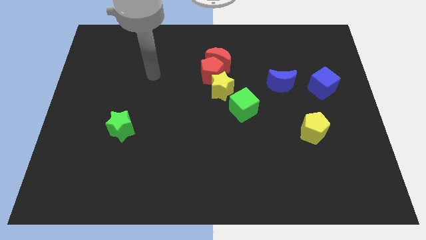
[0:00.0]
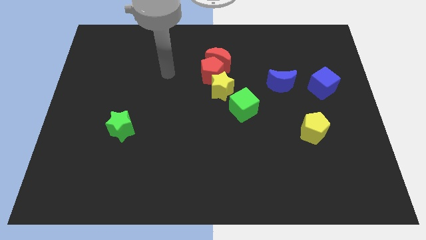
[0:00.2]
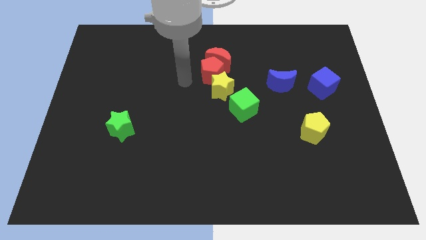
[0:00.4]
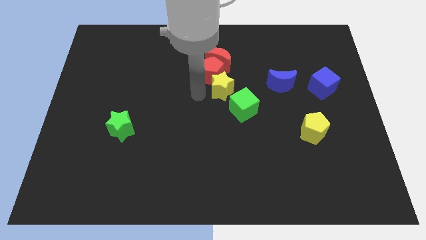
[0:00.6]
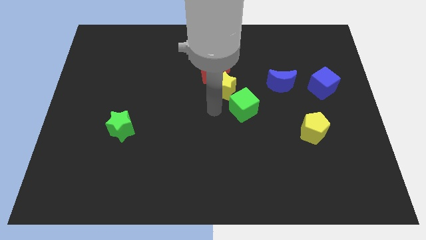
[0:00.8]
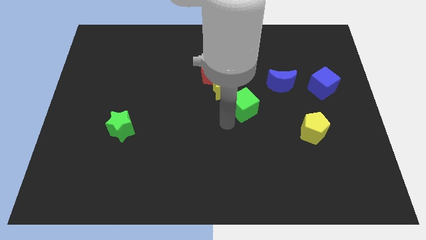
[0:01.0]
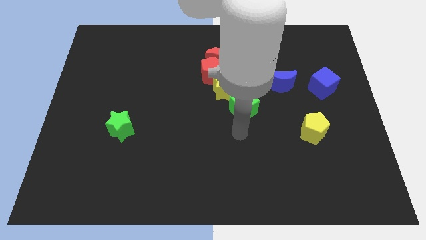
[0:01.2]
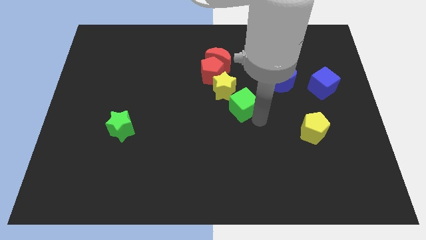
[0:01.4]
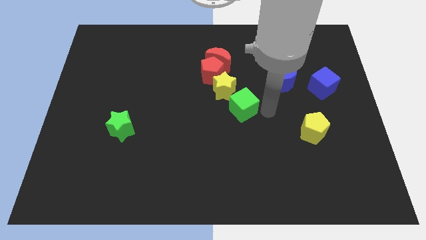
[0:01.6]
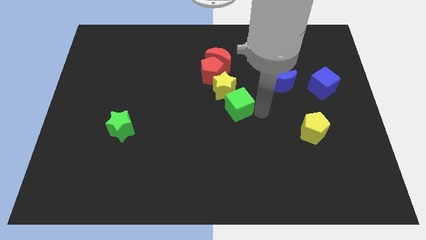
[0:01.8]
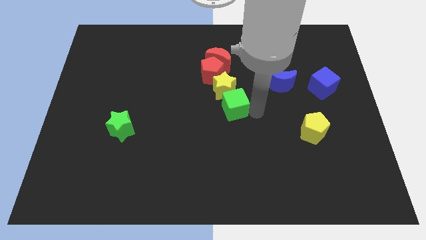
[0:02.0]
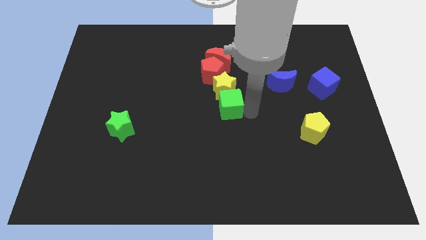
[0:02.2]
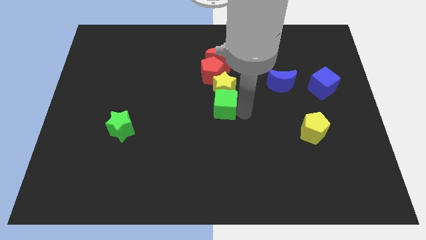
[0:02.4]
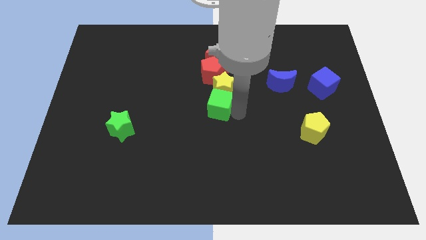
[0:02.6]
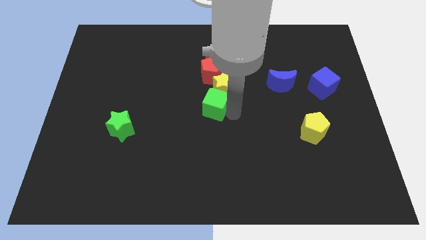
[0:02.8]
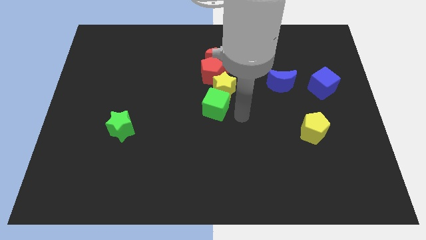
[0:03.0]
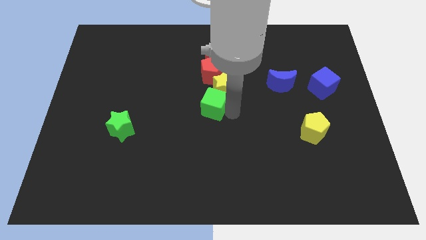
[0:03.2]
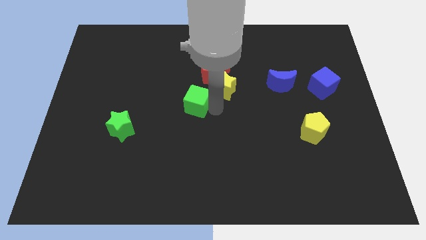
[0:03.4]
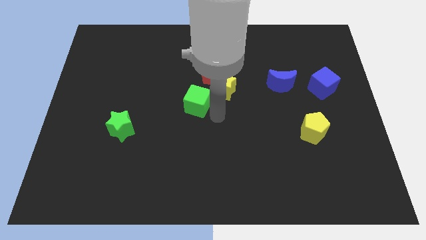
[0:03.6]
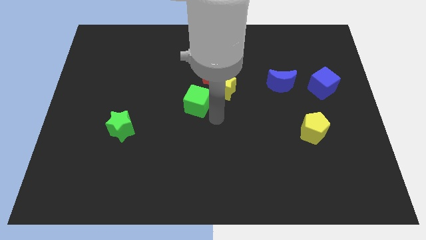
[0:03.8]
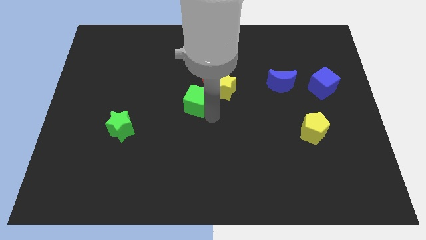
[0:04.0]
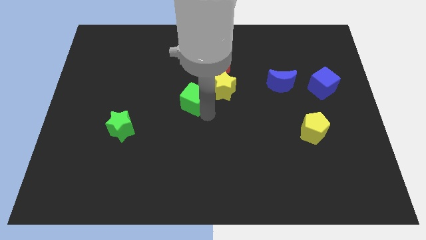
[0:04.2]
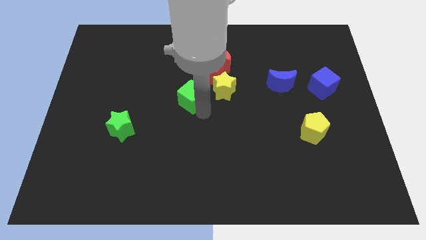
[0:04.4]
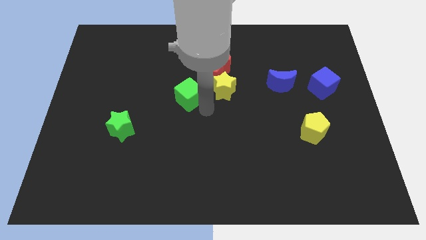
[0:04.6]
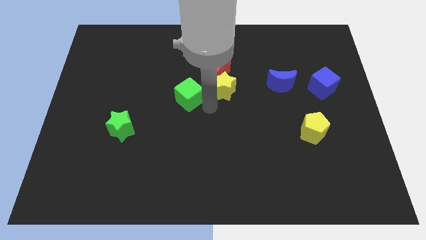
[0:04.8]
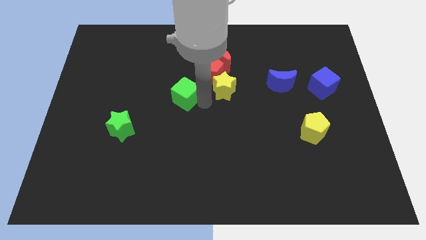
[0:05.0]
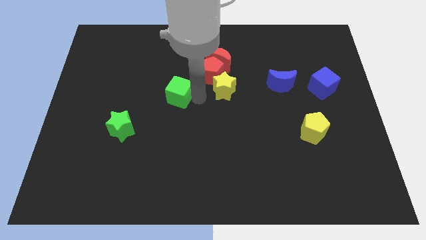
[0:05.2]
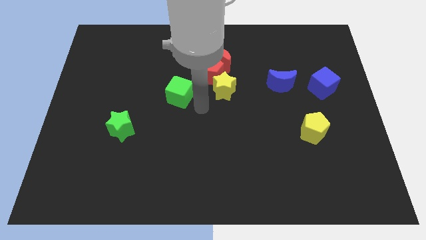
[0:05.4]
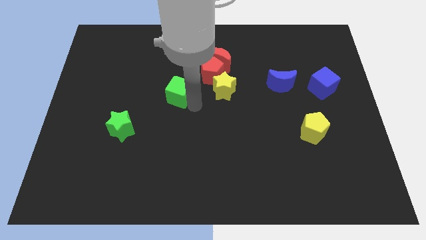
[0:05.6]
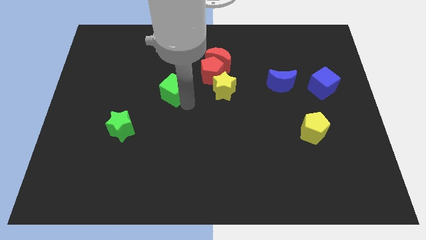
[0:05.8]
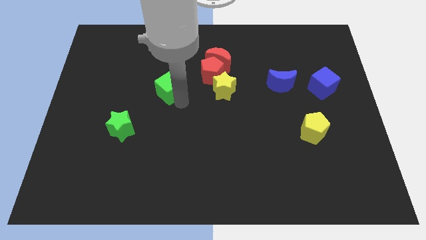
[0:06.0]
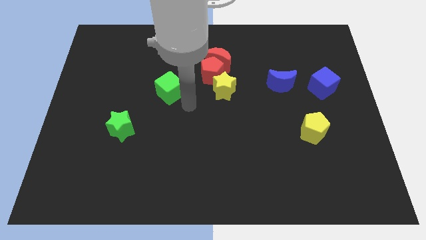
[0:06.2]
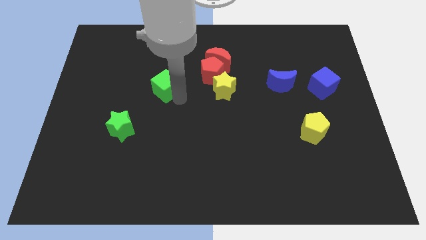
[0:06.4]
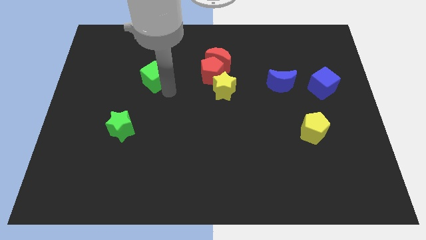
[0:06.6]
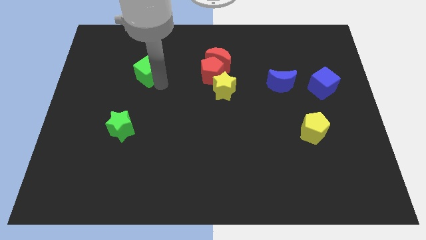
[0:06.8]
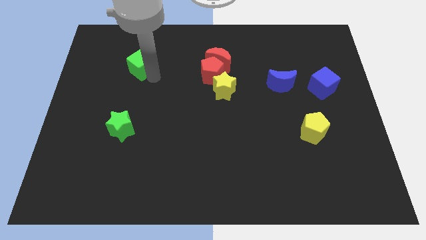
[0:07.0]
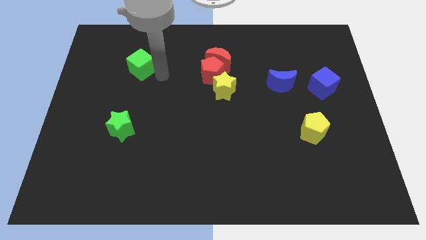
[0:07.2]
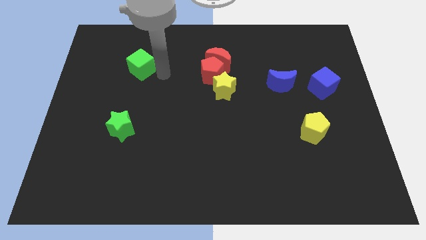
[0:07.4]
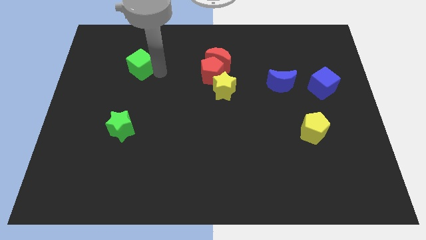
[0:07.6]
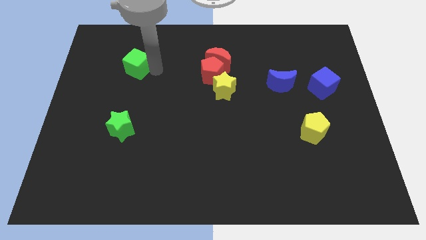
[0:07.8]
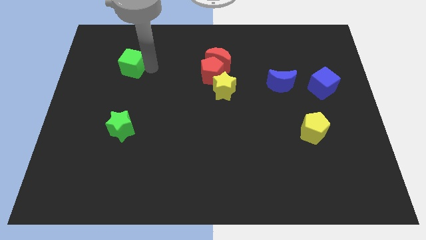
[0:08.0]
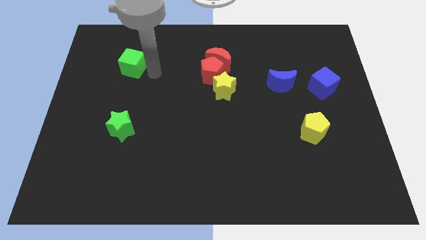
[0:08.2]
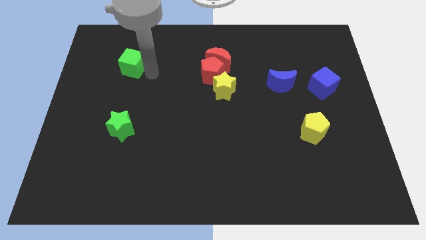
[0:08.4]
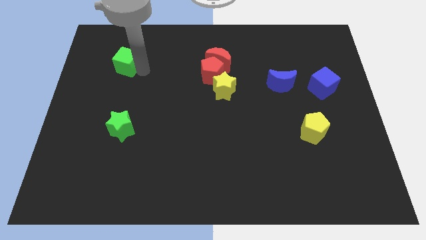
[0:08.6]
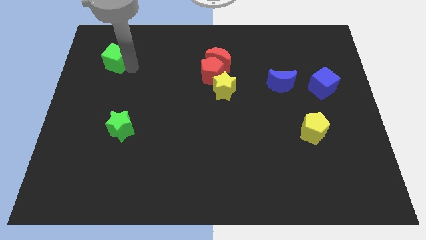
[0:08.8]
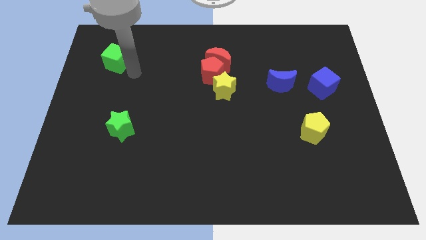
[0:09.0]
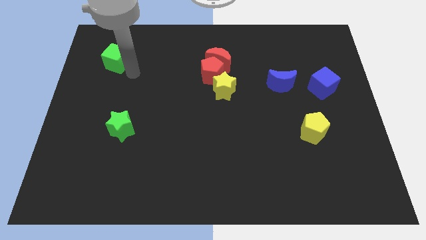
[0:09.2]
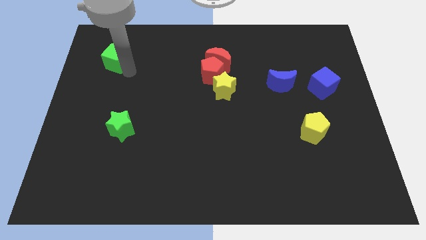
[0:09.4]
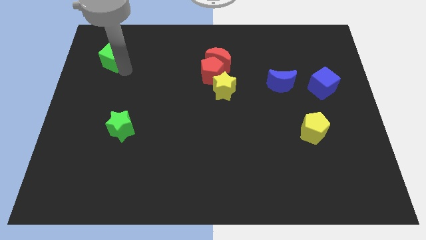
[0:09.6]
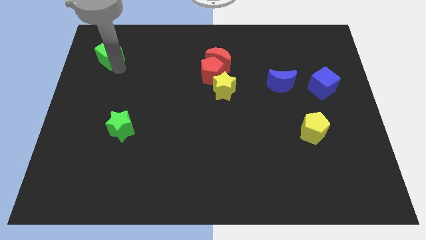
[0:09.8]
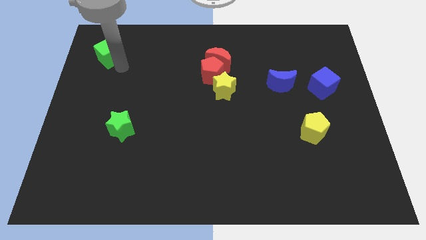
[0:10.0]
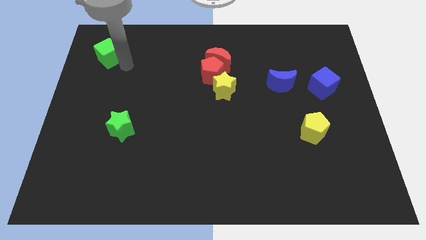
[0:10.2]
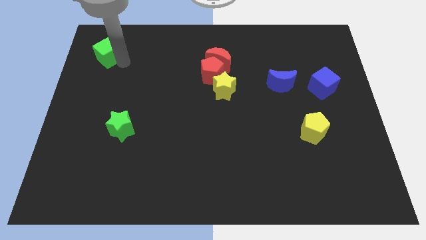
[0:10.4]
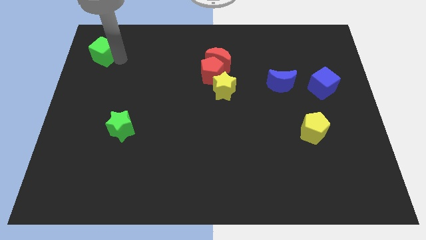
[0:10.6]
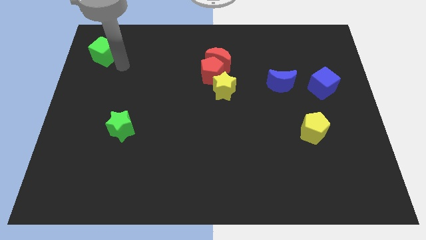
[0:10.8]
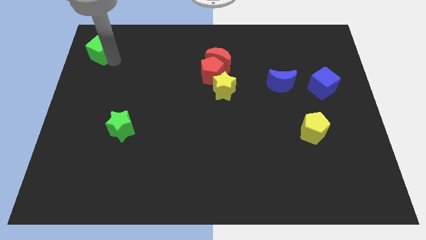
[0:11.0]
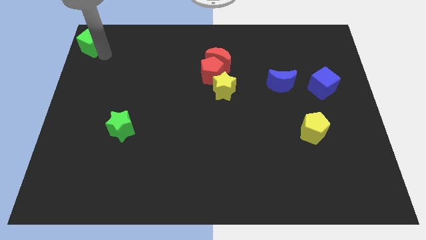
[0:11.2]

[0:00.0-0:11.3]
slide the green cube to the top left of the board

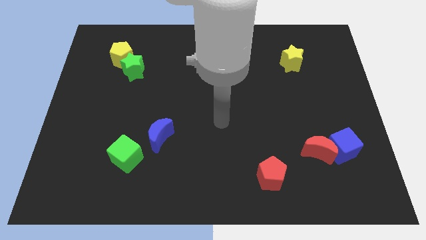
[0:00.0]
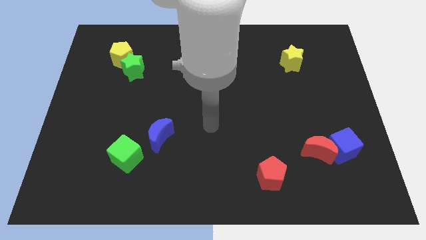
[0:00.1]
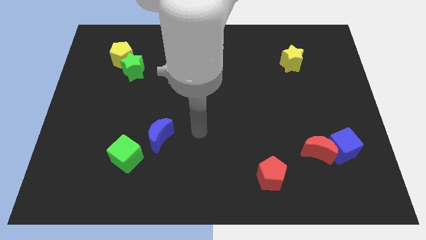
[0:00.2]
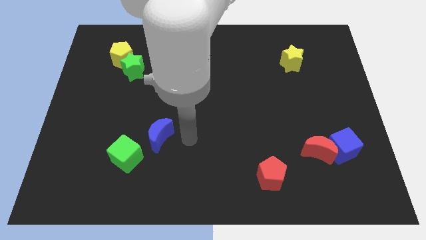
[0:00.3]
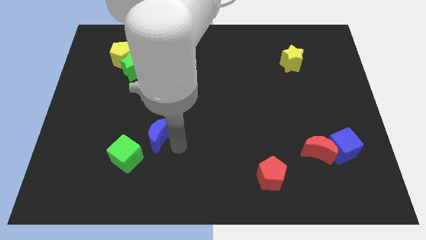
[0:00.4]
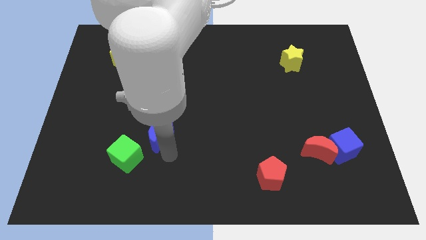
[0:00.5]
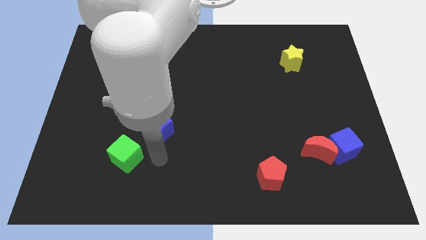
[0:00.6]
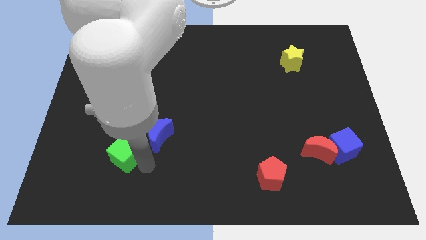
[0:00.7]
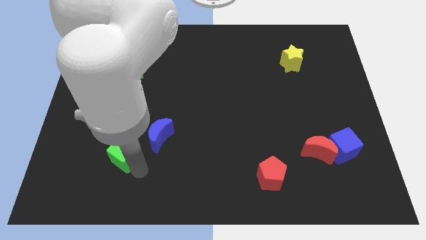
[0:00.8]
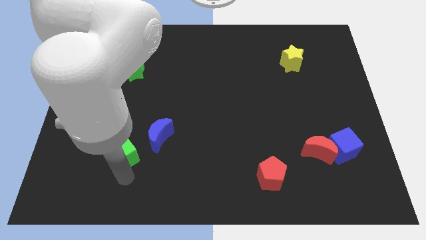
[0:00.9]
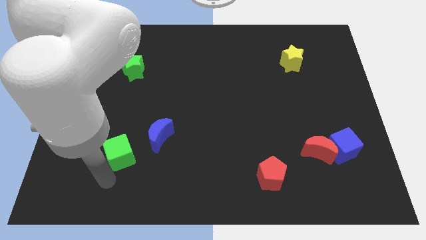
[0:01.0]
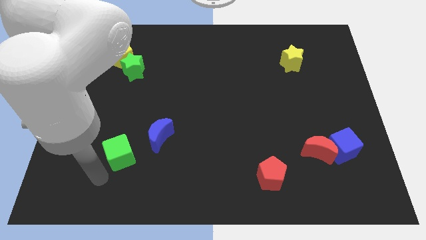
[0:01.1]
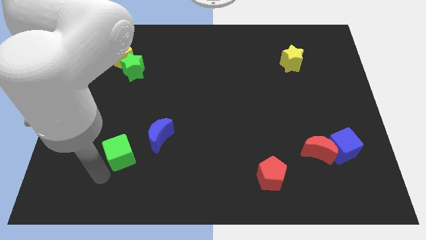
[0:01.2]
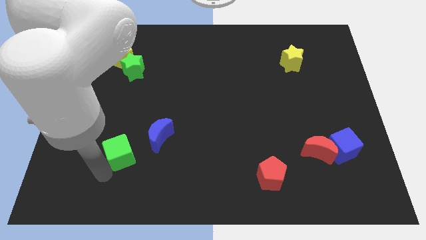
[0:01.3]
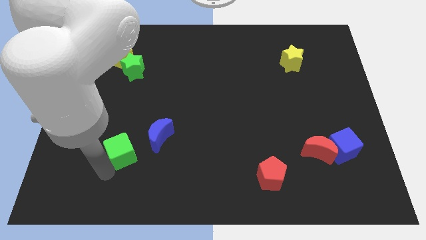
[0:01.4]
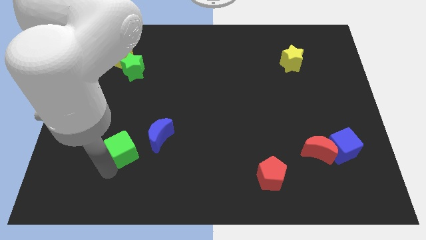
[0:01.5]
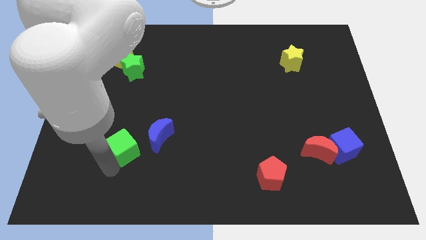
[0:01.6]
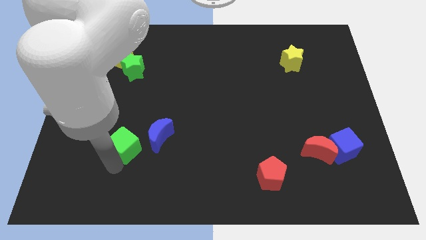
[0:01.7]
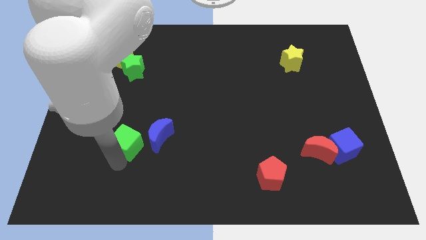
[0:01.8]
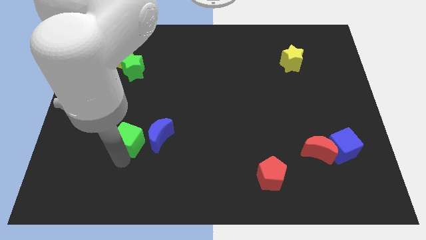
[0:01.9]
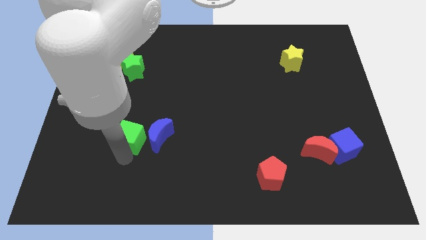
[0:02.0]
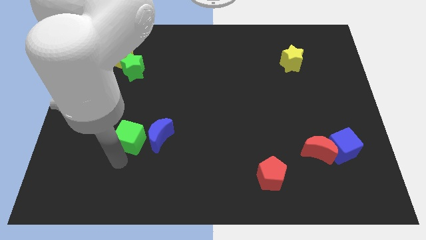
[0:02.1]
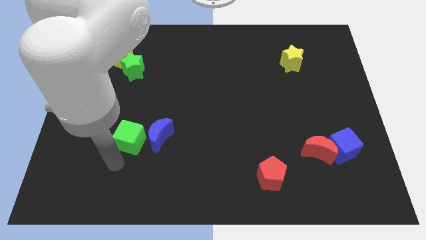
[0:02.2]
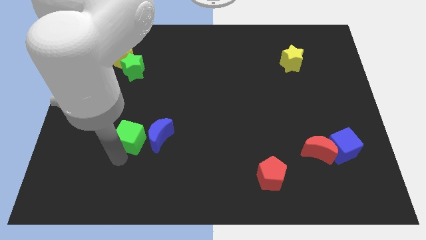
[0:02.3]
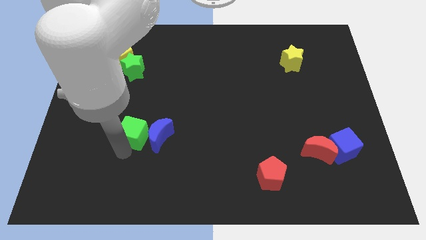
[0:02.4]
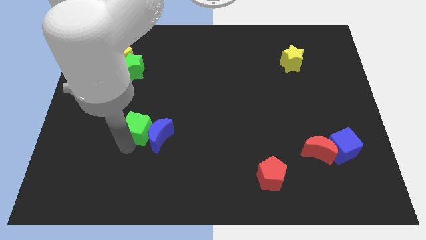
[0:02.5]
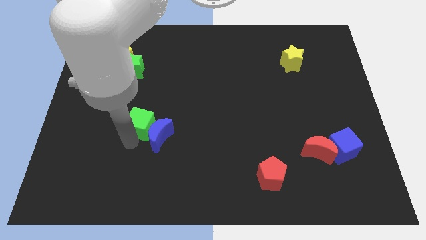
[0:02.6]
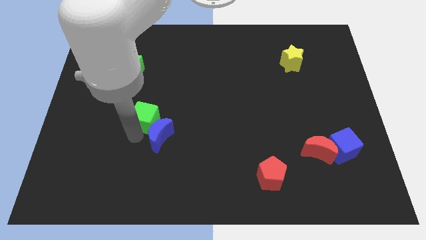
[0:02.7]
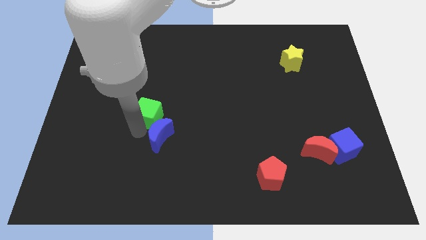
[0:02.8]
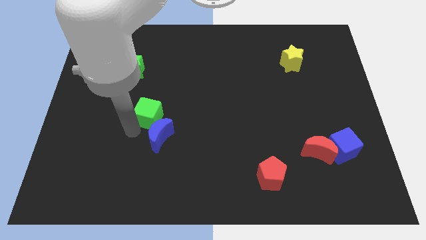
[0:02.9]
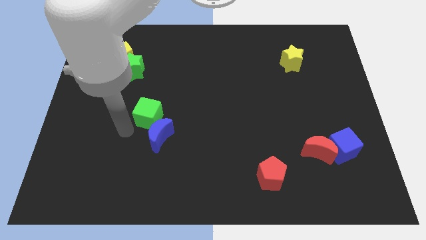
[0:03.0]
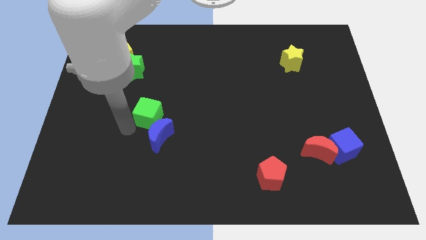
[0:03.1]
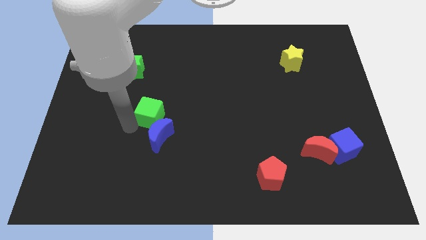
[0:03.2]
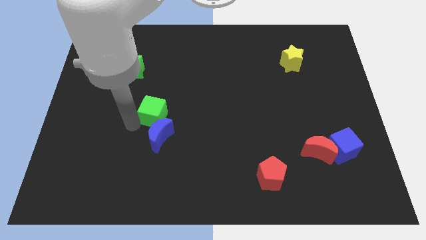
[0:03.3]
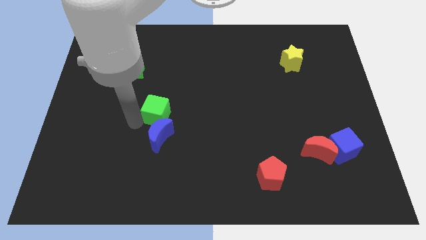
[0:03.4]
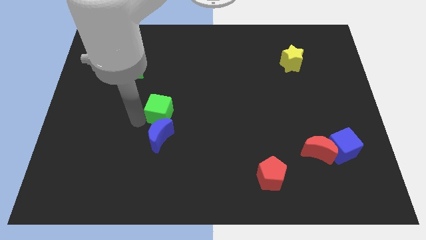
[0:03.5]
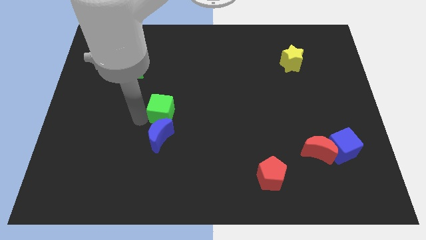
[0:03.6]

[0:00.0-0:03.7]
move the green cube to the middle of the board
